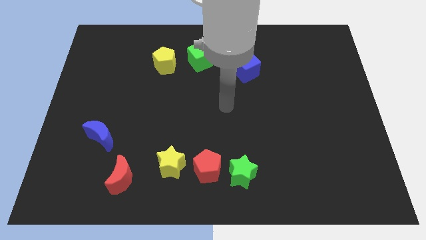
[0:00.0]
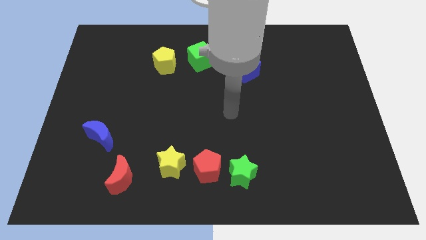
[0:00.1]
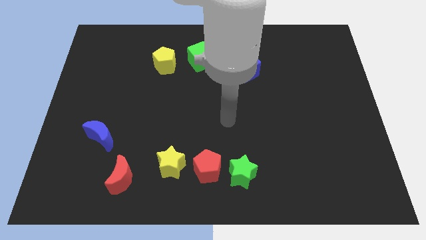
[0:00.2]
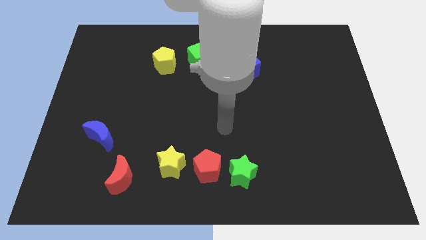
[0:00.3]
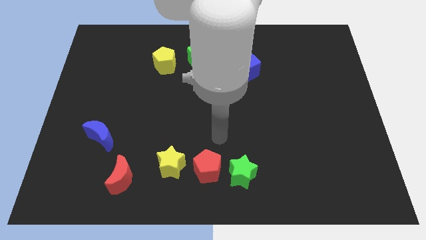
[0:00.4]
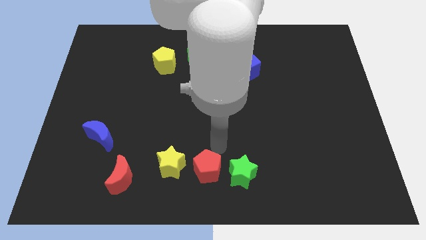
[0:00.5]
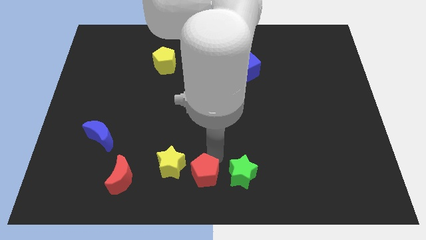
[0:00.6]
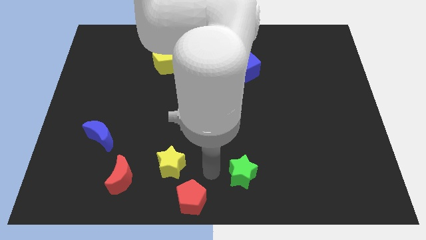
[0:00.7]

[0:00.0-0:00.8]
separate the green star from the red pentagon

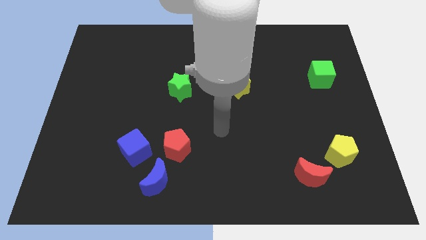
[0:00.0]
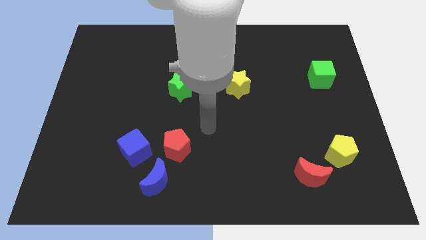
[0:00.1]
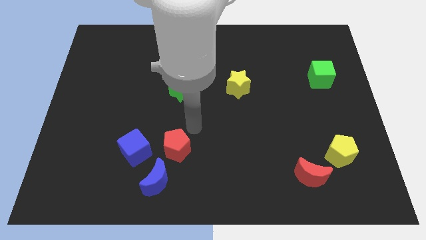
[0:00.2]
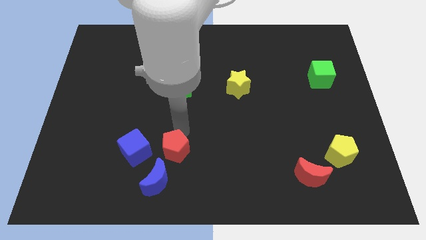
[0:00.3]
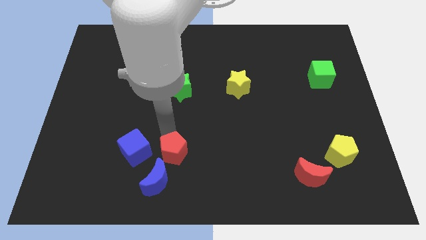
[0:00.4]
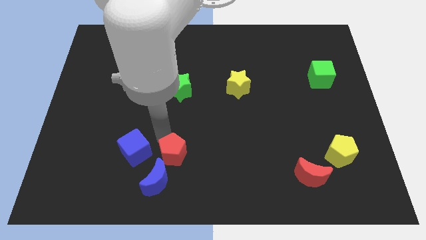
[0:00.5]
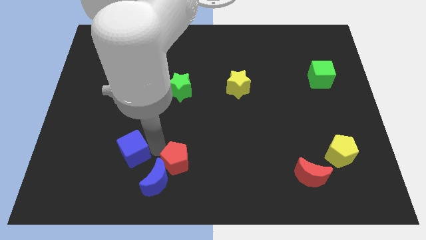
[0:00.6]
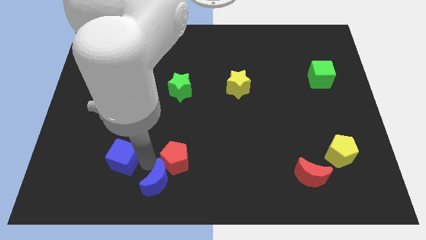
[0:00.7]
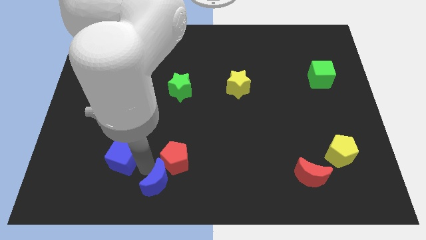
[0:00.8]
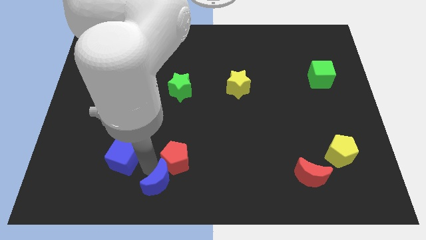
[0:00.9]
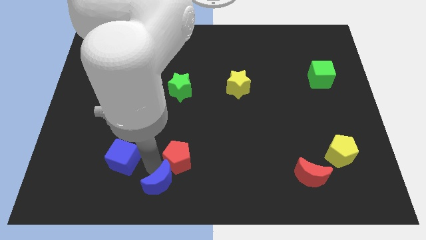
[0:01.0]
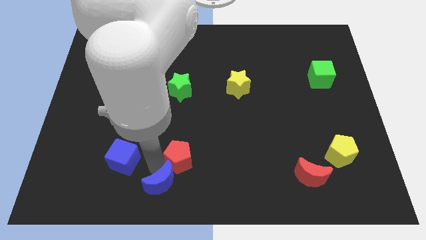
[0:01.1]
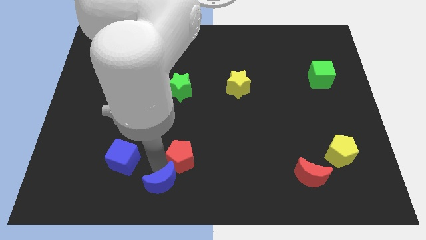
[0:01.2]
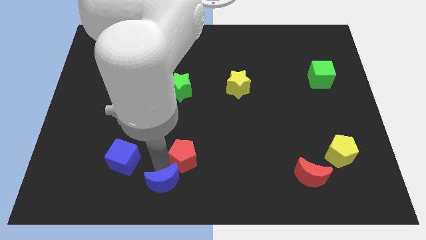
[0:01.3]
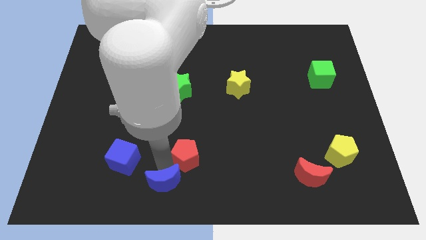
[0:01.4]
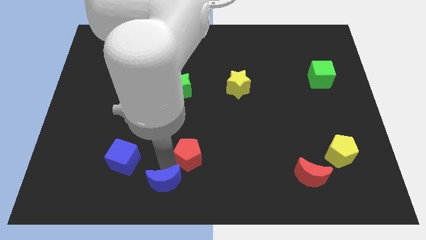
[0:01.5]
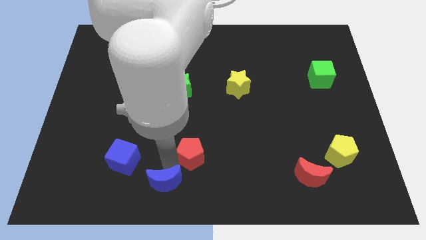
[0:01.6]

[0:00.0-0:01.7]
pull the red pentagon apart from the blue moon and blue cube

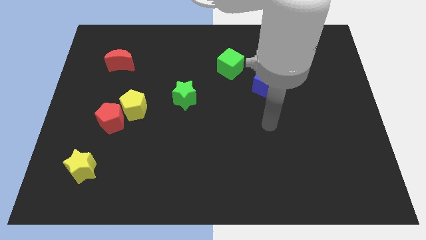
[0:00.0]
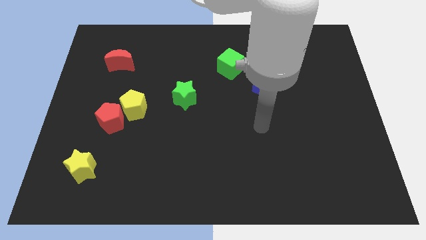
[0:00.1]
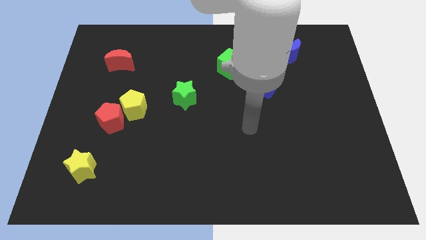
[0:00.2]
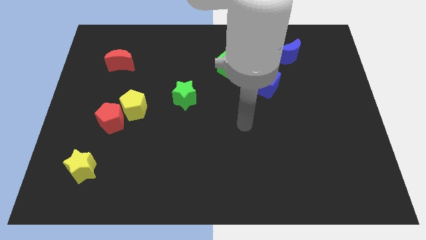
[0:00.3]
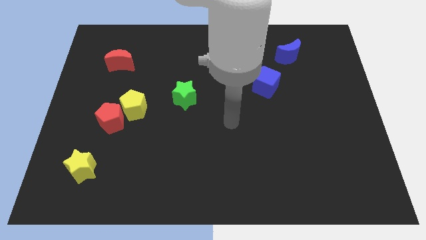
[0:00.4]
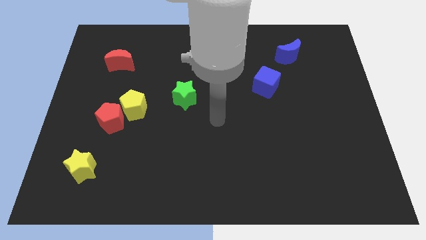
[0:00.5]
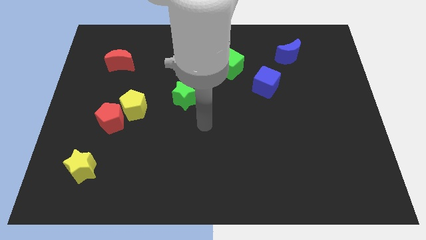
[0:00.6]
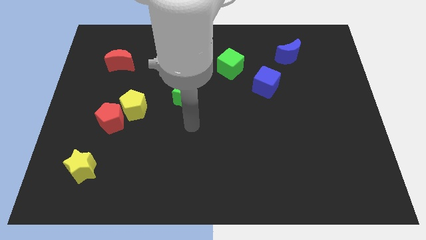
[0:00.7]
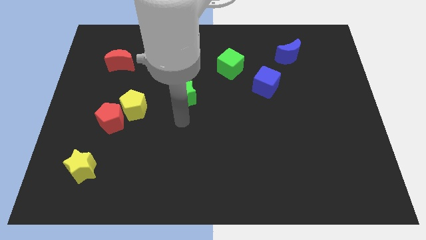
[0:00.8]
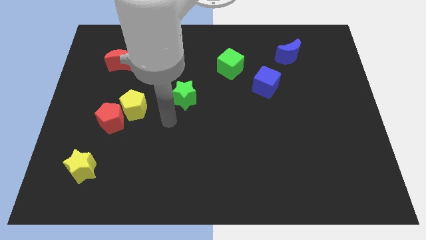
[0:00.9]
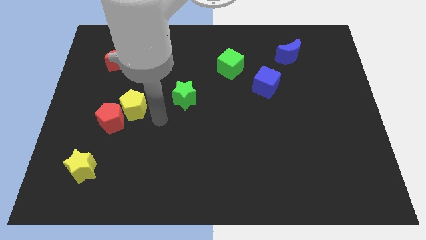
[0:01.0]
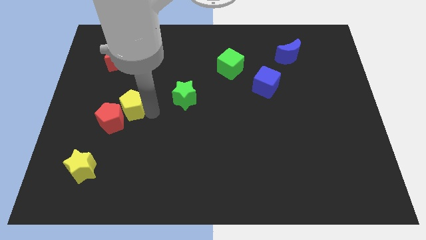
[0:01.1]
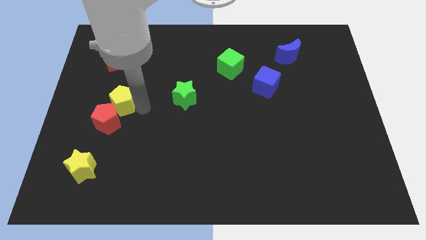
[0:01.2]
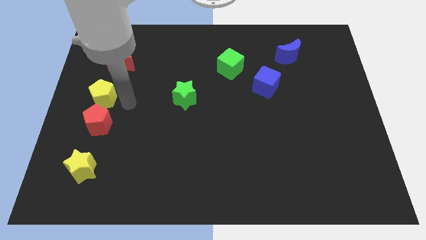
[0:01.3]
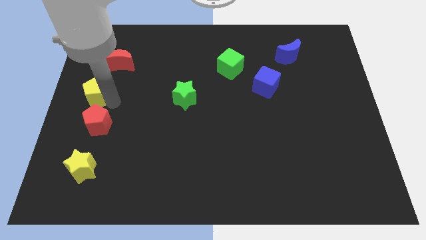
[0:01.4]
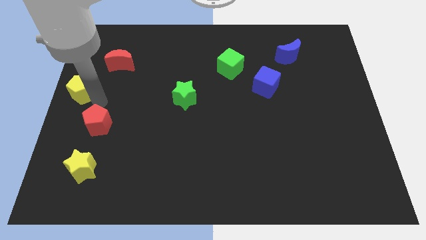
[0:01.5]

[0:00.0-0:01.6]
move the red pentagon away from the yellow pentagon

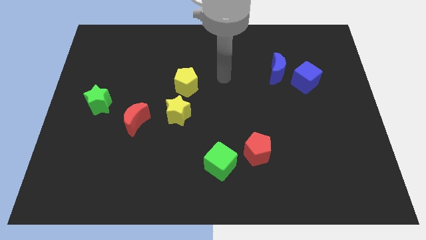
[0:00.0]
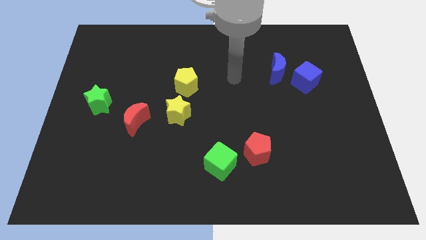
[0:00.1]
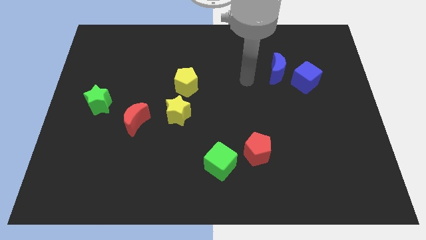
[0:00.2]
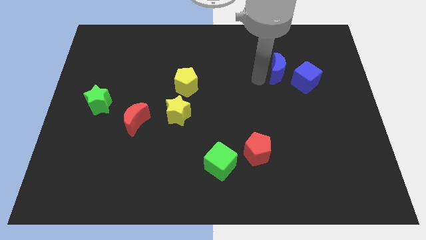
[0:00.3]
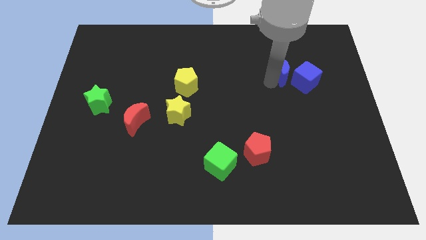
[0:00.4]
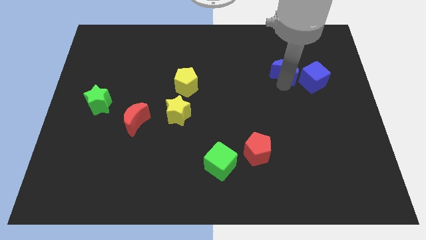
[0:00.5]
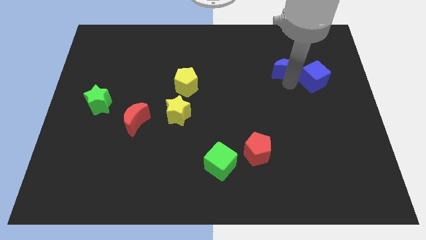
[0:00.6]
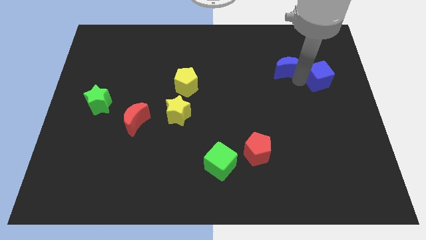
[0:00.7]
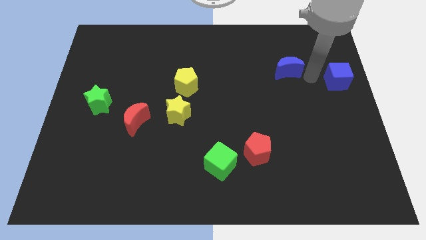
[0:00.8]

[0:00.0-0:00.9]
move the blue moon away from the blue cube

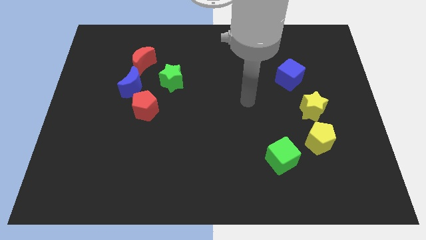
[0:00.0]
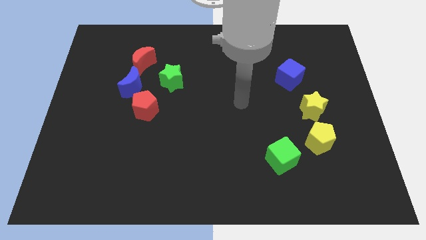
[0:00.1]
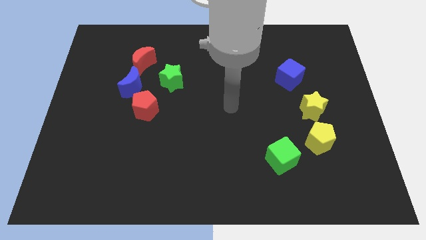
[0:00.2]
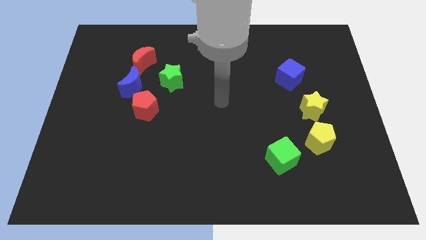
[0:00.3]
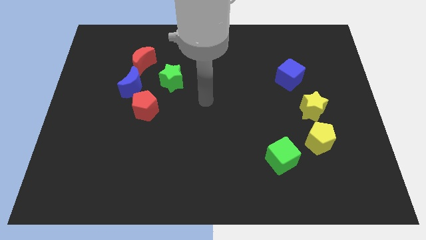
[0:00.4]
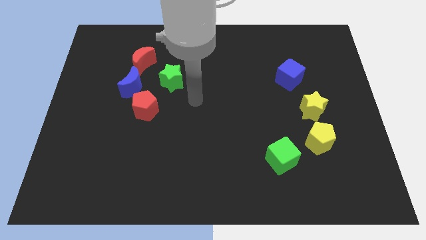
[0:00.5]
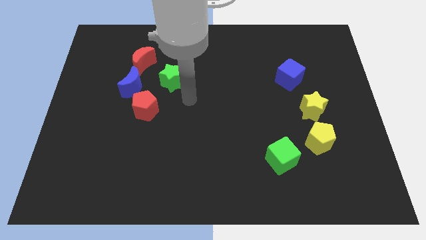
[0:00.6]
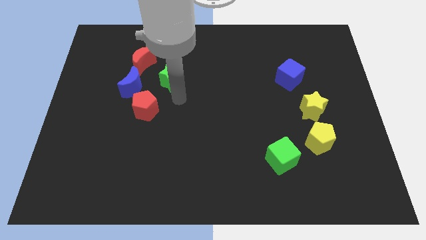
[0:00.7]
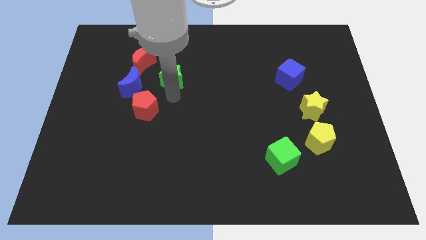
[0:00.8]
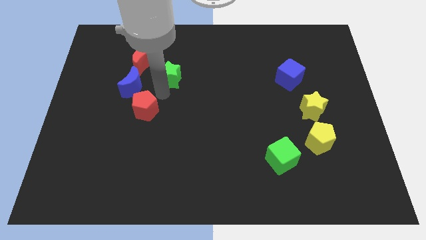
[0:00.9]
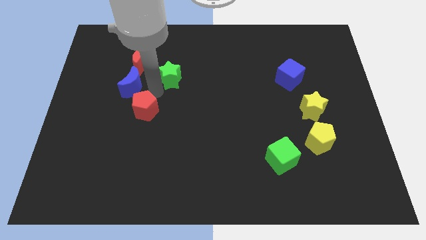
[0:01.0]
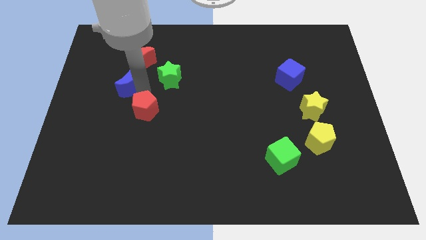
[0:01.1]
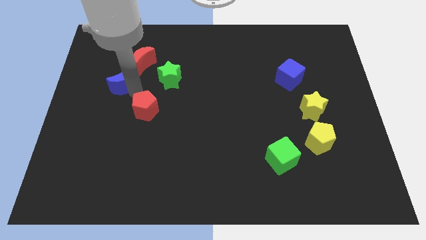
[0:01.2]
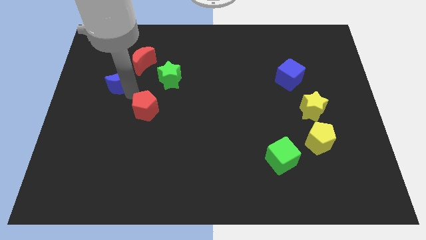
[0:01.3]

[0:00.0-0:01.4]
pull the red pentagon apart from the blue moon

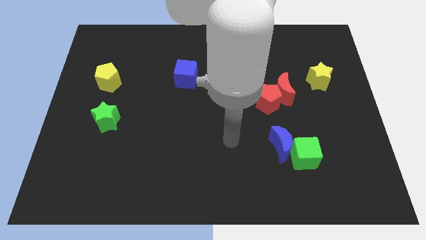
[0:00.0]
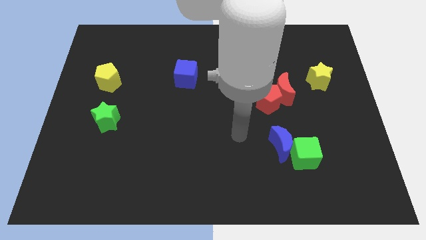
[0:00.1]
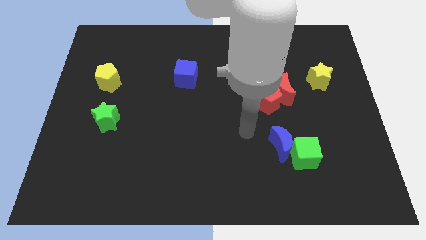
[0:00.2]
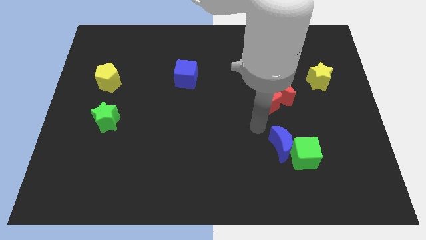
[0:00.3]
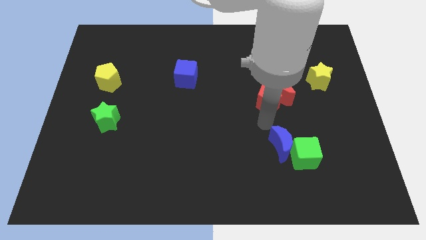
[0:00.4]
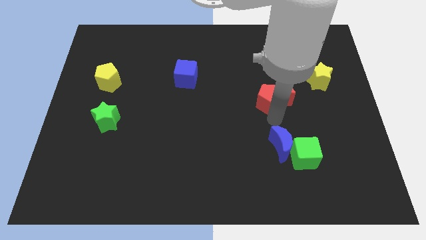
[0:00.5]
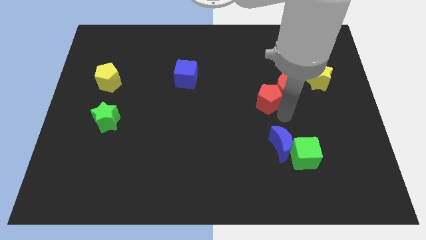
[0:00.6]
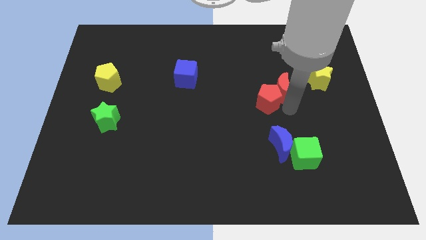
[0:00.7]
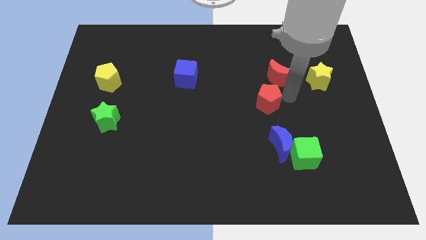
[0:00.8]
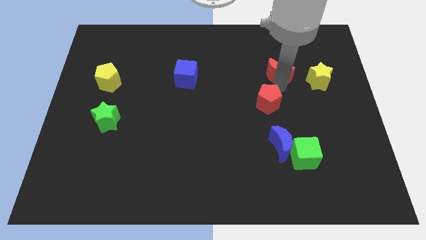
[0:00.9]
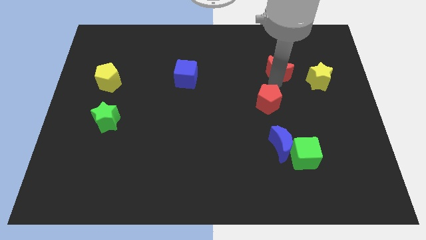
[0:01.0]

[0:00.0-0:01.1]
separate the red pentagon from the red moon

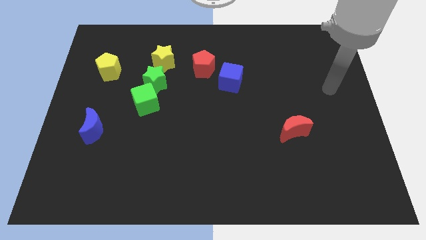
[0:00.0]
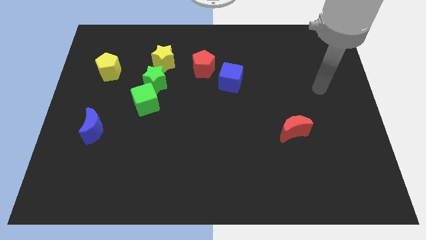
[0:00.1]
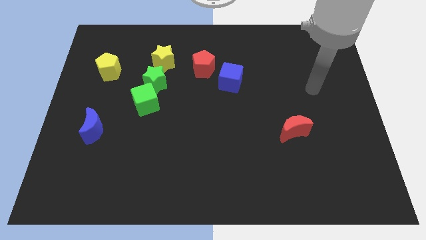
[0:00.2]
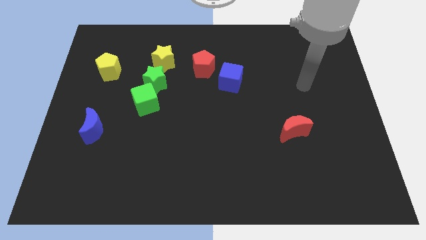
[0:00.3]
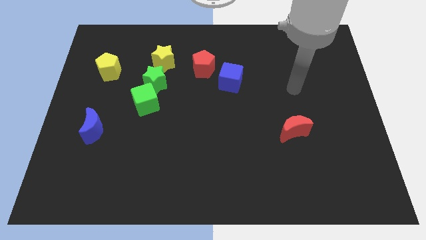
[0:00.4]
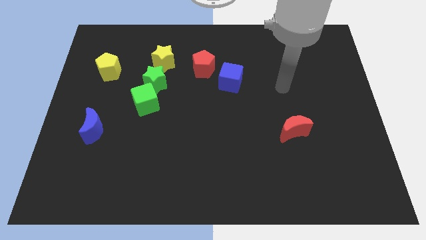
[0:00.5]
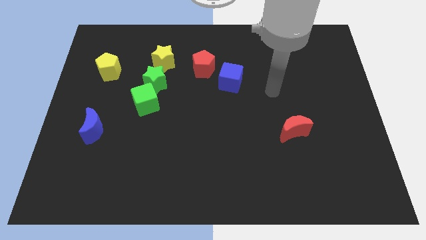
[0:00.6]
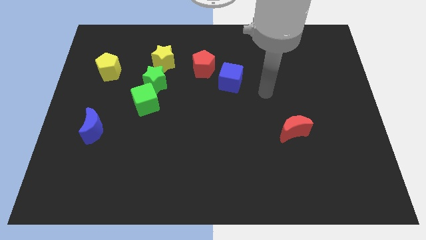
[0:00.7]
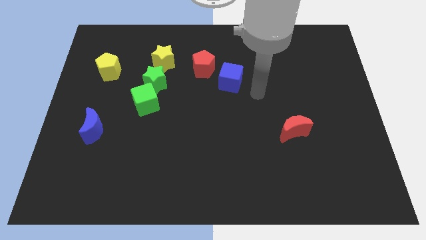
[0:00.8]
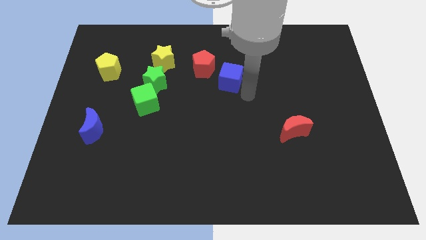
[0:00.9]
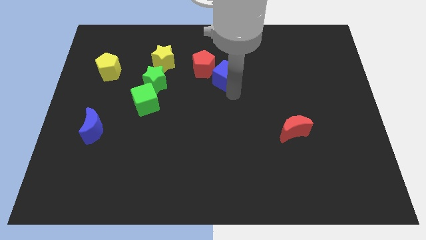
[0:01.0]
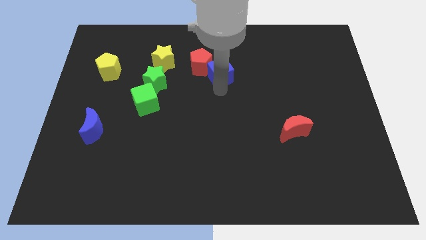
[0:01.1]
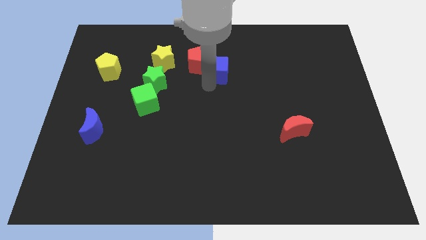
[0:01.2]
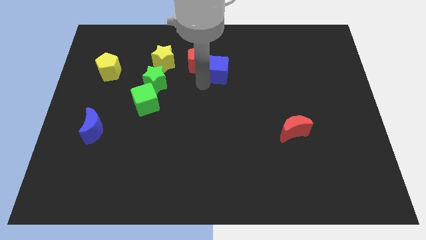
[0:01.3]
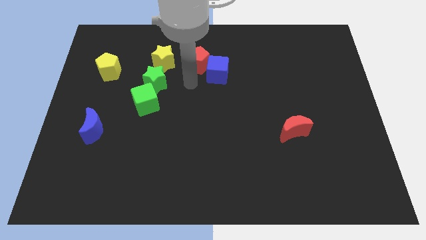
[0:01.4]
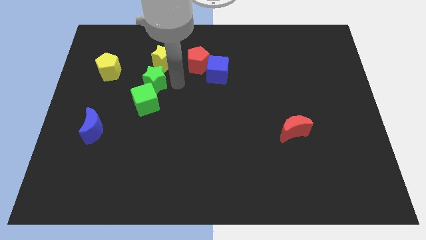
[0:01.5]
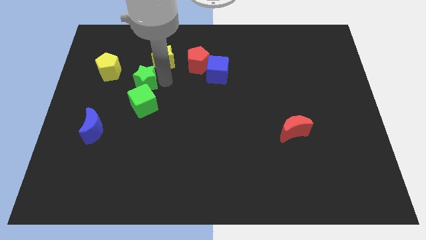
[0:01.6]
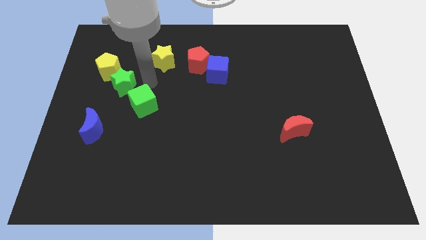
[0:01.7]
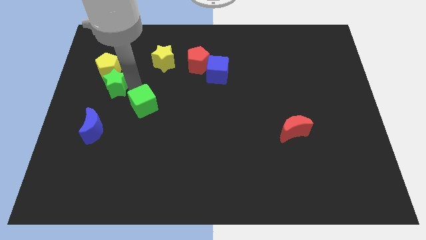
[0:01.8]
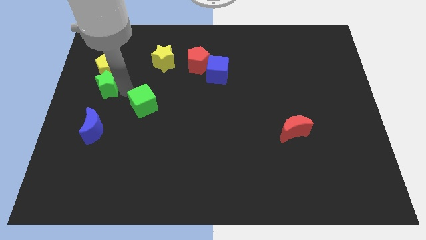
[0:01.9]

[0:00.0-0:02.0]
move the green cube away from the green star
